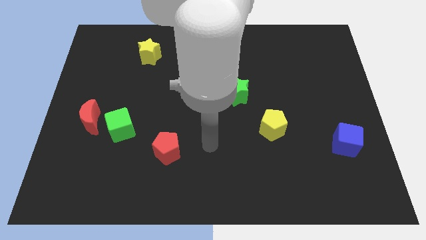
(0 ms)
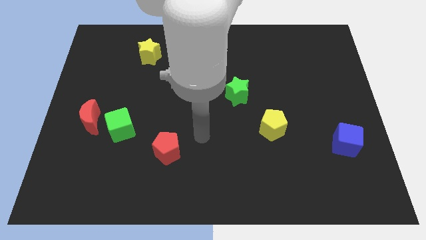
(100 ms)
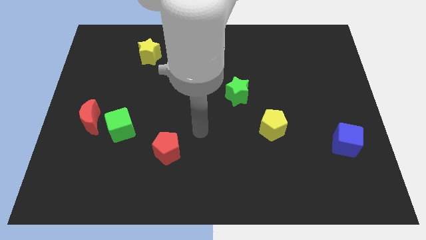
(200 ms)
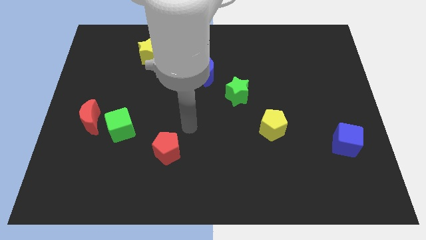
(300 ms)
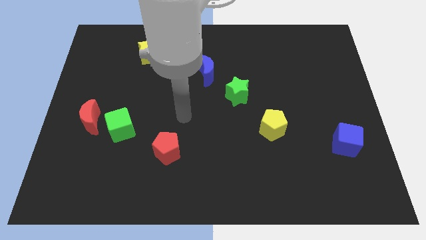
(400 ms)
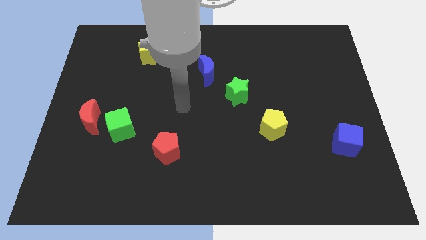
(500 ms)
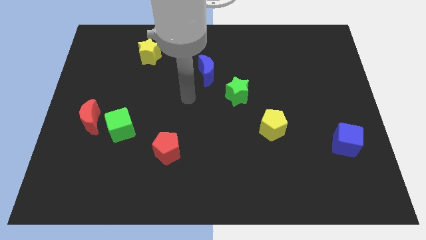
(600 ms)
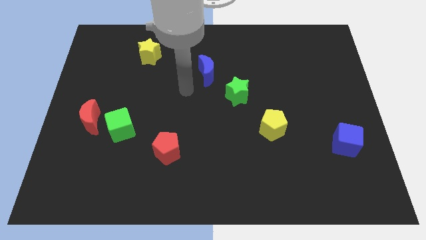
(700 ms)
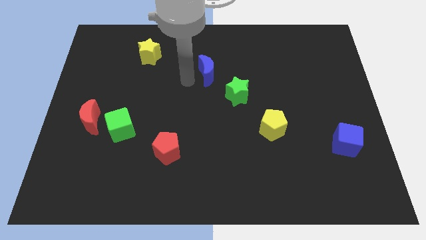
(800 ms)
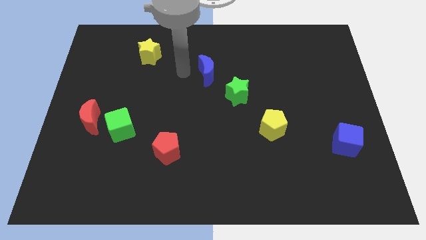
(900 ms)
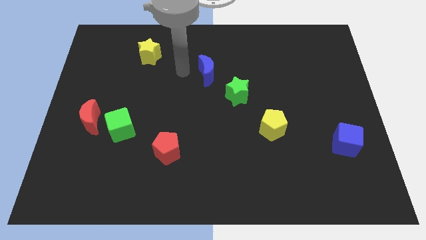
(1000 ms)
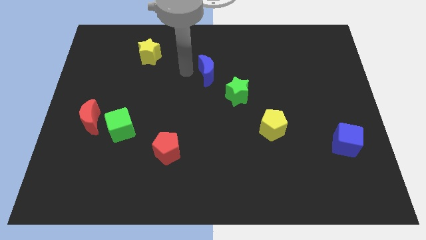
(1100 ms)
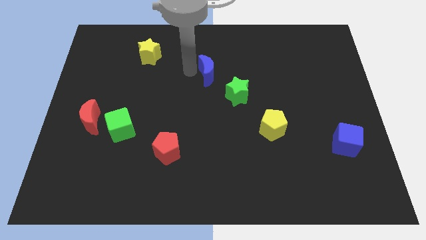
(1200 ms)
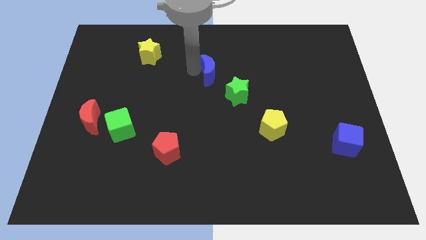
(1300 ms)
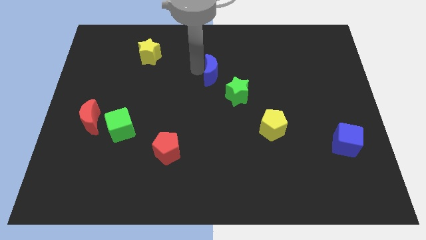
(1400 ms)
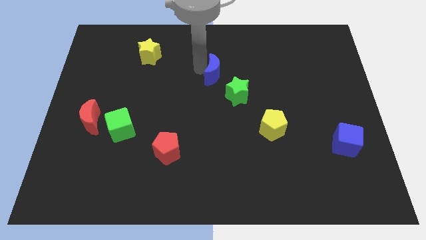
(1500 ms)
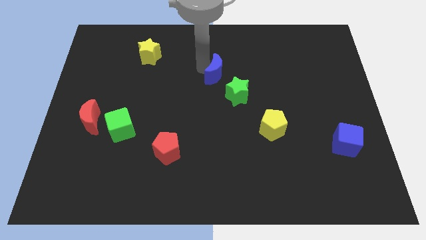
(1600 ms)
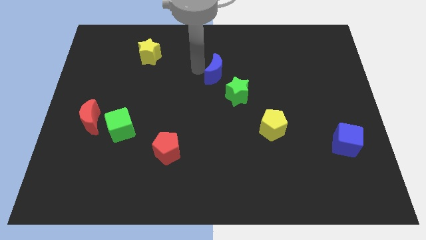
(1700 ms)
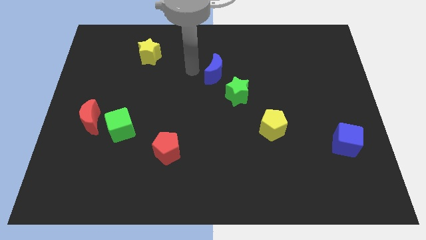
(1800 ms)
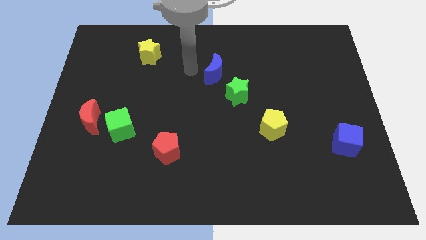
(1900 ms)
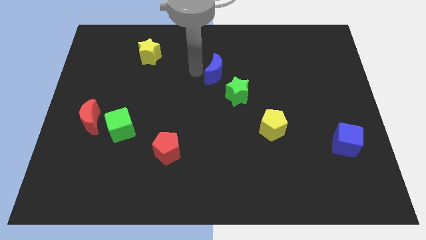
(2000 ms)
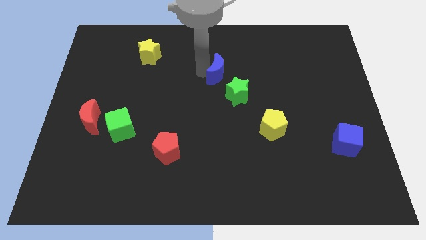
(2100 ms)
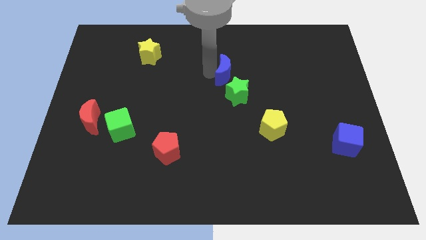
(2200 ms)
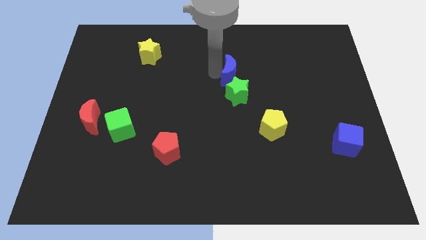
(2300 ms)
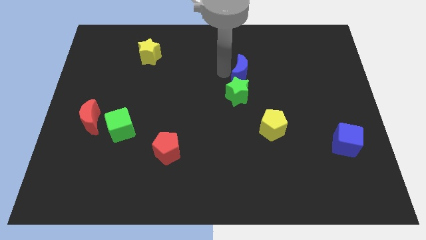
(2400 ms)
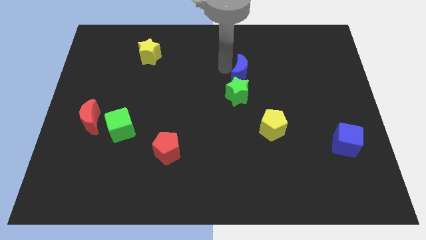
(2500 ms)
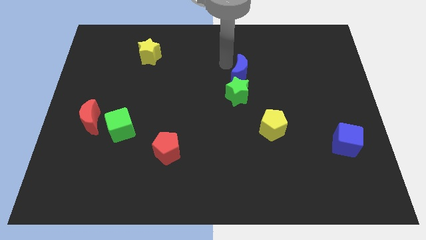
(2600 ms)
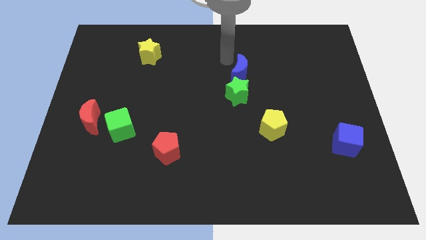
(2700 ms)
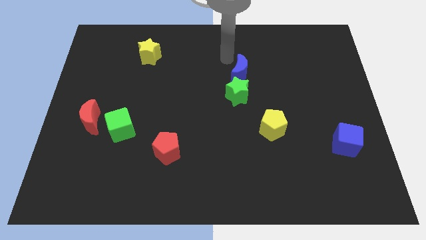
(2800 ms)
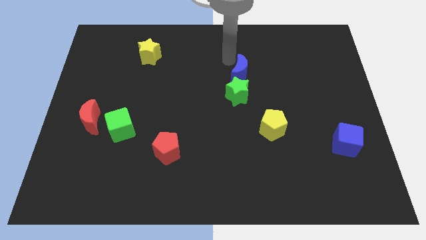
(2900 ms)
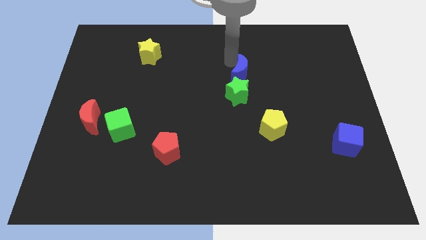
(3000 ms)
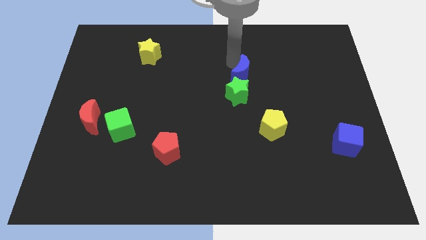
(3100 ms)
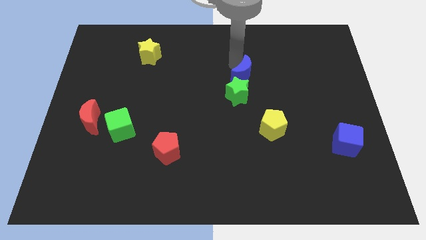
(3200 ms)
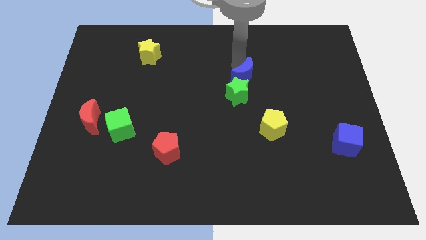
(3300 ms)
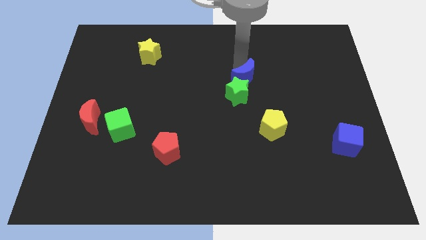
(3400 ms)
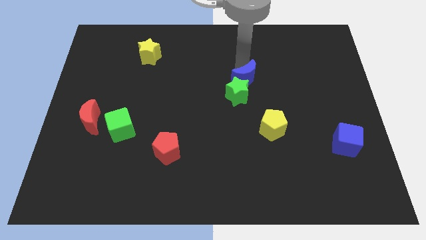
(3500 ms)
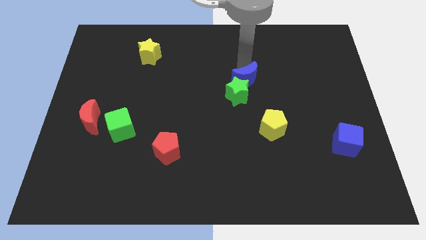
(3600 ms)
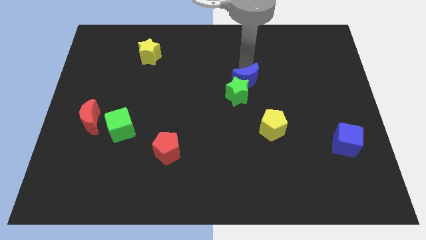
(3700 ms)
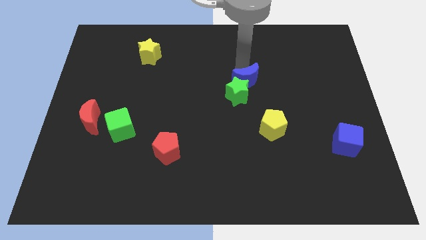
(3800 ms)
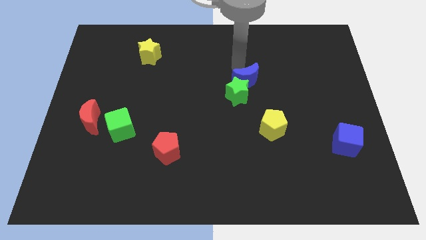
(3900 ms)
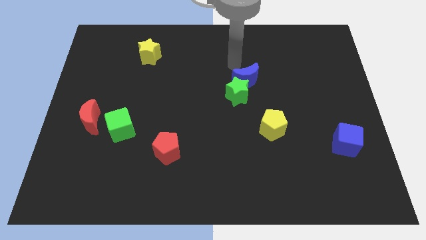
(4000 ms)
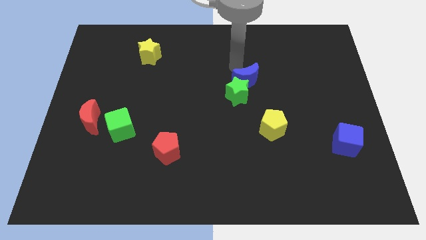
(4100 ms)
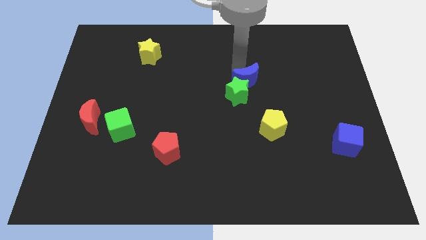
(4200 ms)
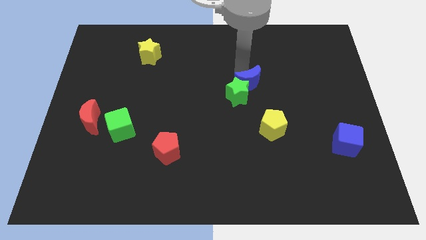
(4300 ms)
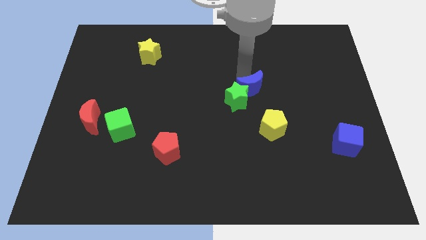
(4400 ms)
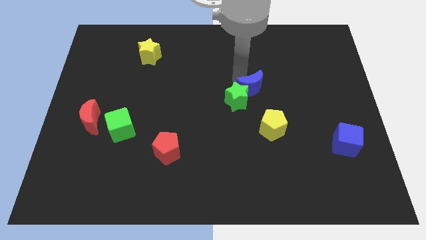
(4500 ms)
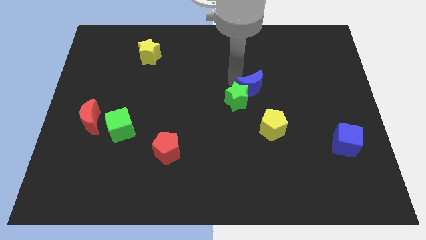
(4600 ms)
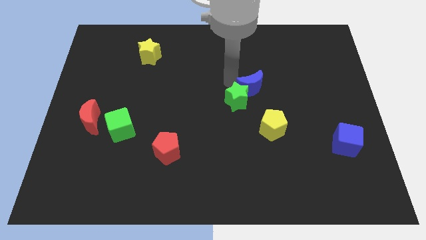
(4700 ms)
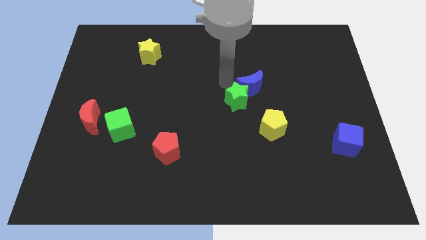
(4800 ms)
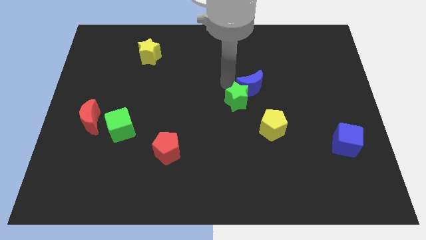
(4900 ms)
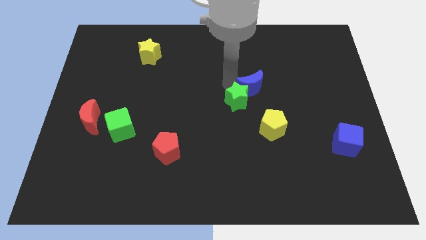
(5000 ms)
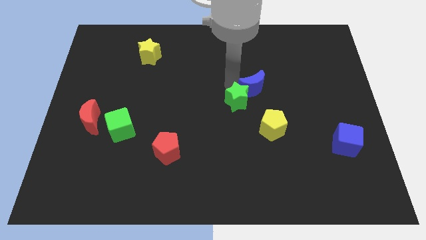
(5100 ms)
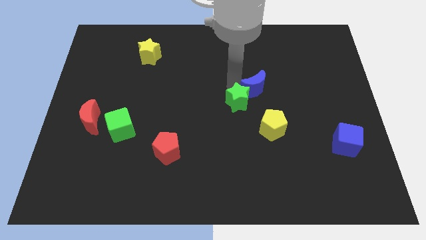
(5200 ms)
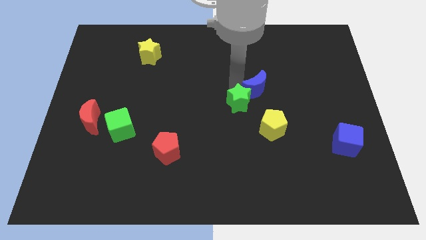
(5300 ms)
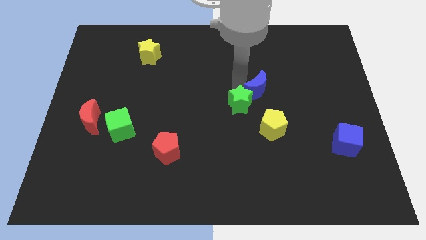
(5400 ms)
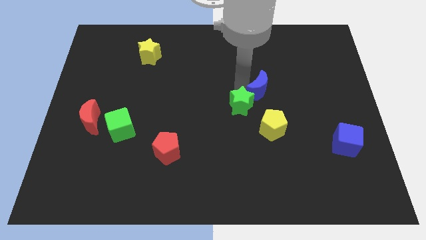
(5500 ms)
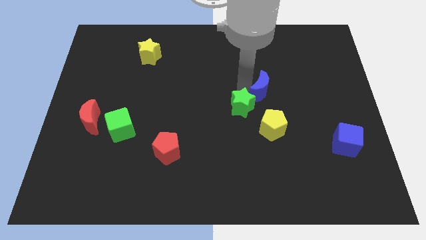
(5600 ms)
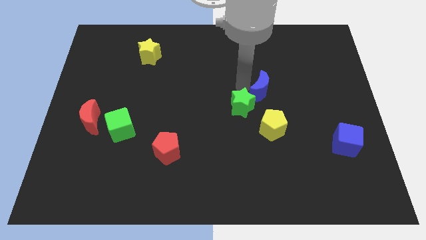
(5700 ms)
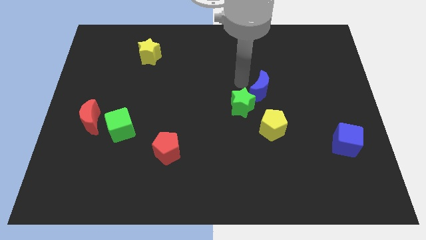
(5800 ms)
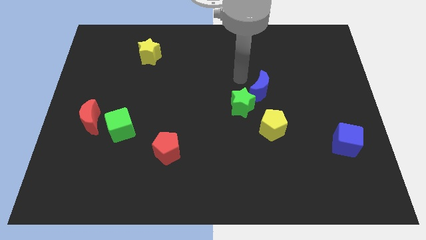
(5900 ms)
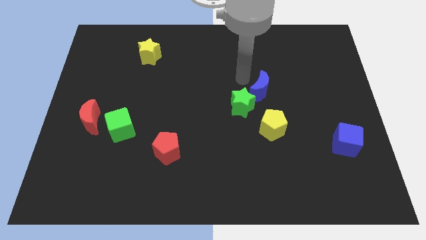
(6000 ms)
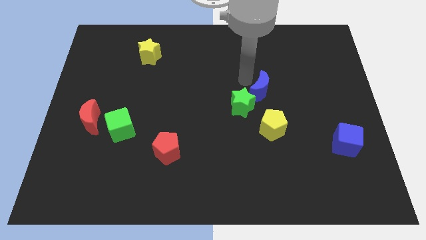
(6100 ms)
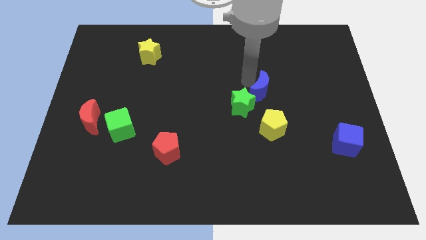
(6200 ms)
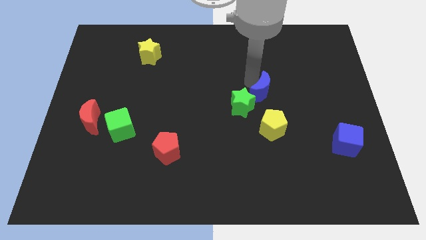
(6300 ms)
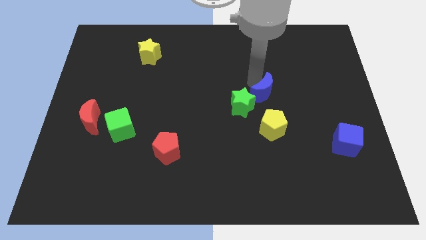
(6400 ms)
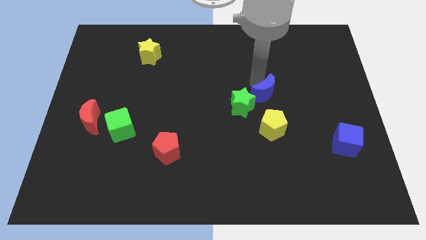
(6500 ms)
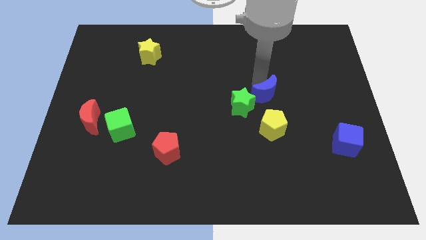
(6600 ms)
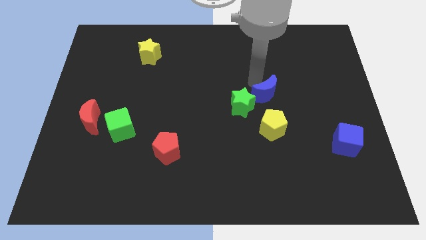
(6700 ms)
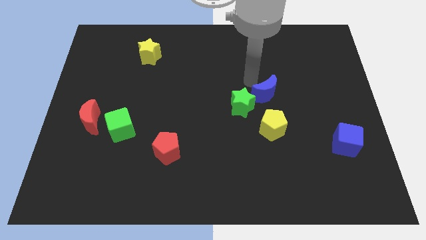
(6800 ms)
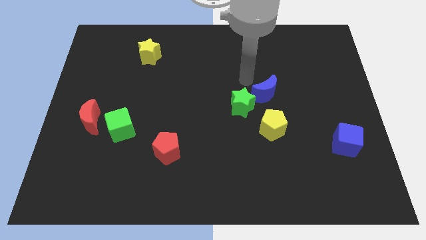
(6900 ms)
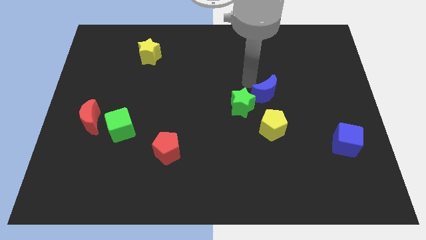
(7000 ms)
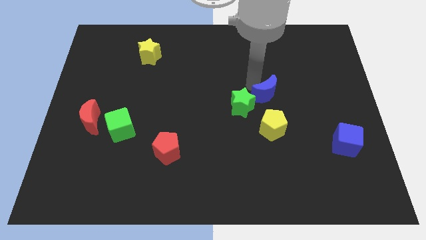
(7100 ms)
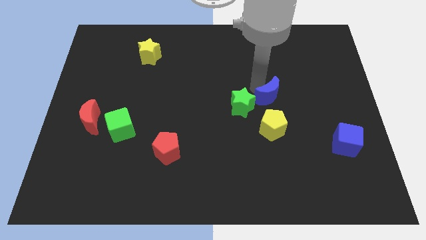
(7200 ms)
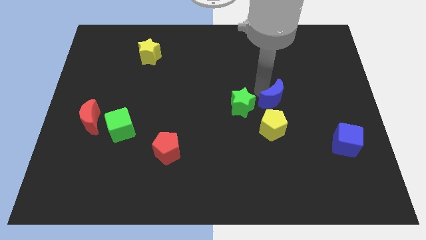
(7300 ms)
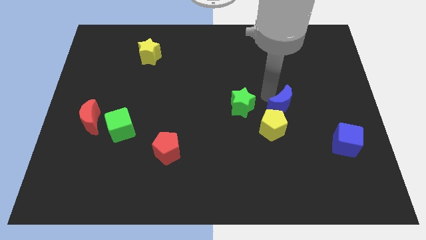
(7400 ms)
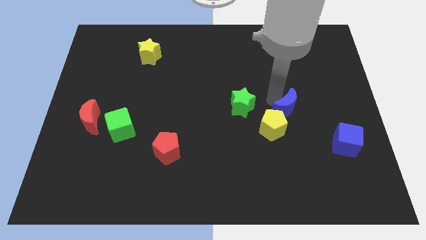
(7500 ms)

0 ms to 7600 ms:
move the blue moon downwards and right

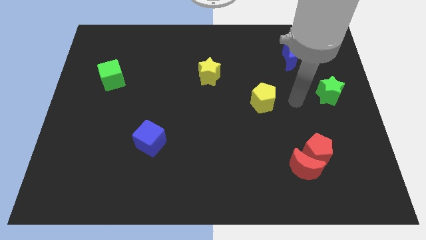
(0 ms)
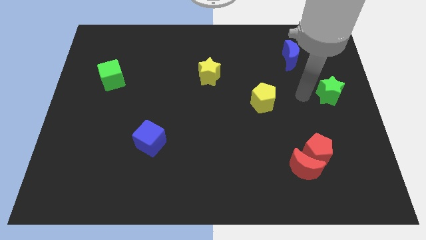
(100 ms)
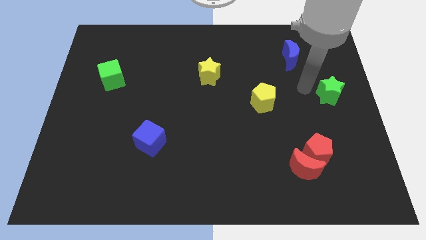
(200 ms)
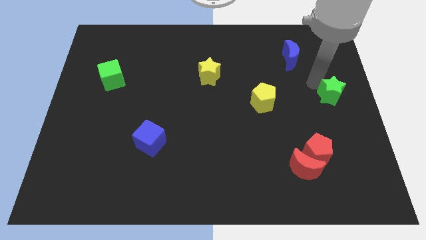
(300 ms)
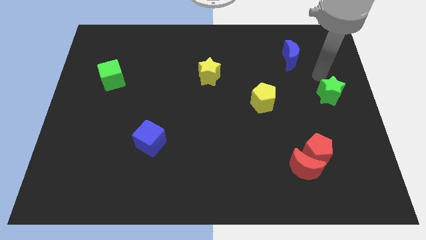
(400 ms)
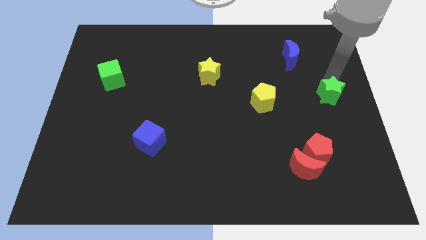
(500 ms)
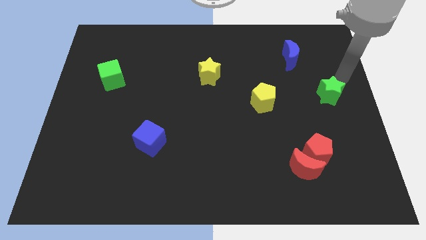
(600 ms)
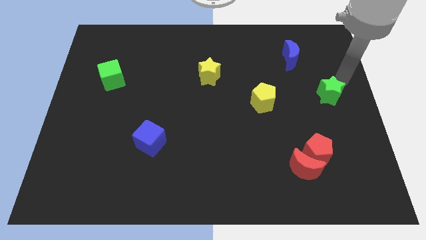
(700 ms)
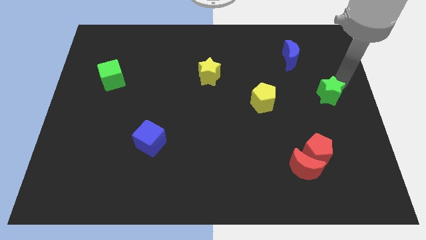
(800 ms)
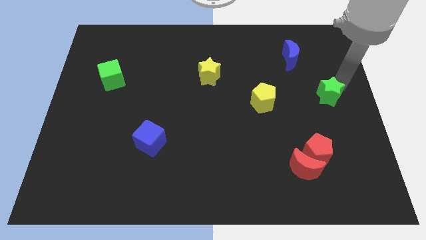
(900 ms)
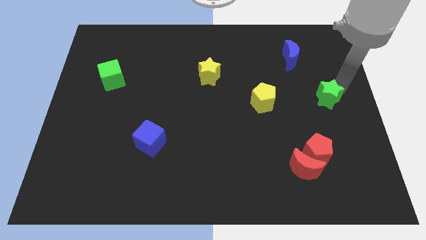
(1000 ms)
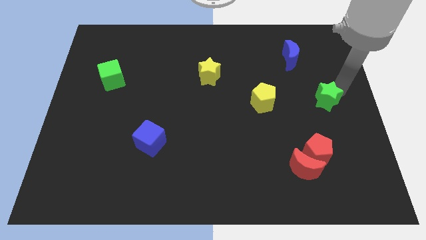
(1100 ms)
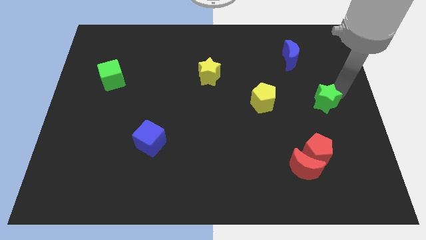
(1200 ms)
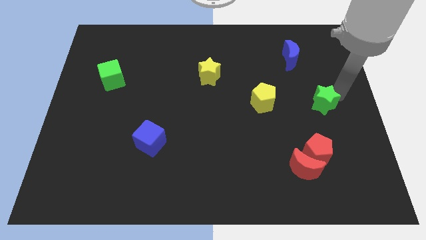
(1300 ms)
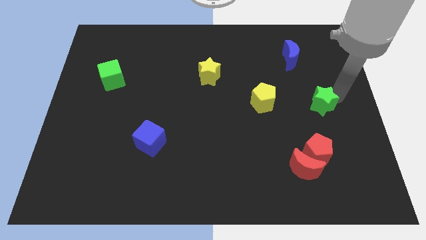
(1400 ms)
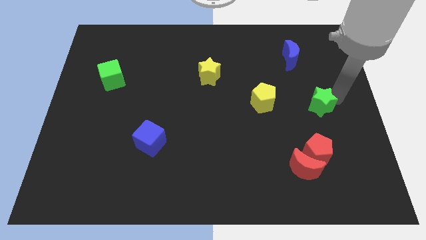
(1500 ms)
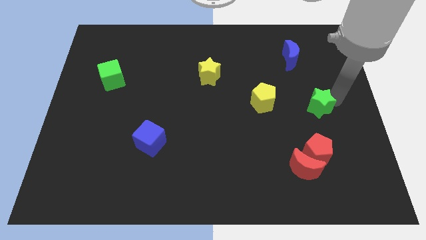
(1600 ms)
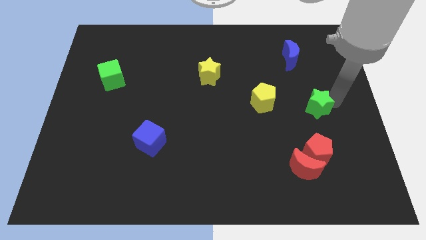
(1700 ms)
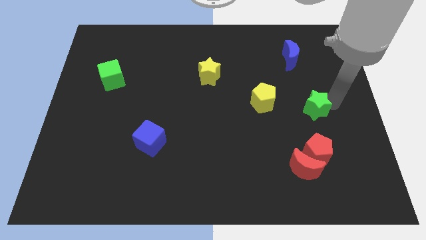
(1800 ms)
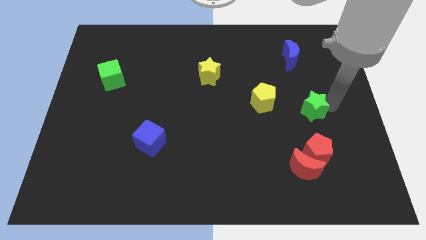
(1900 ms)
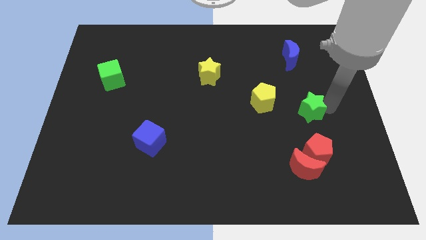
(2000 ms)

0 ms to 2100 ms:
slide the green star down and left diagonally a bit
